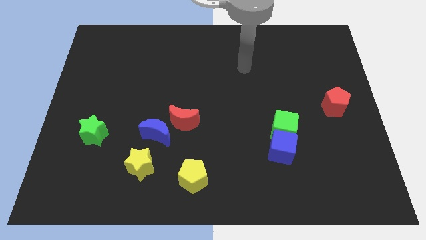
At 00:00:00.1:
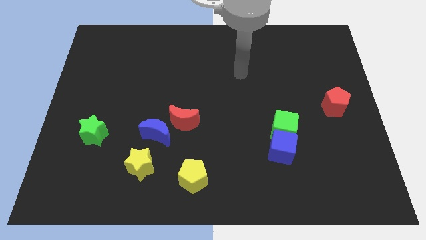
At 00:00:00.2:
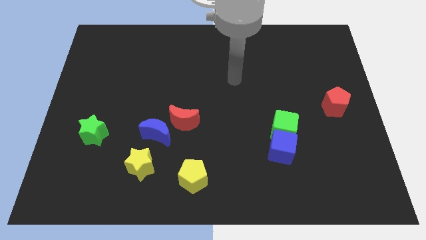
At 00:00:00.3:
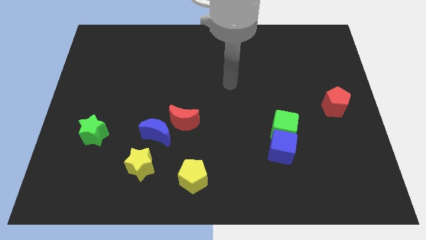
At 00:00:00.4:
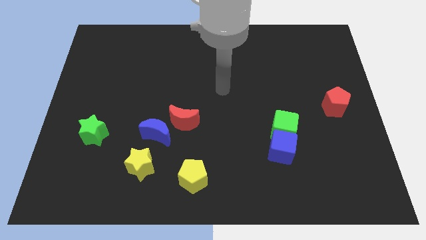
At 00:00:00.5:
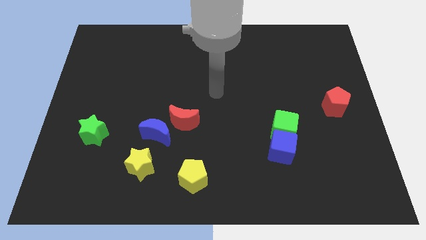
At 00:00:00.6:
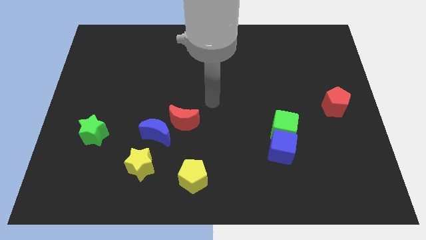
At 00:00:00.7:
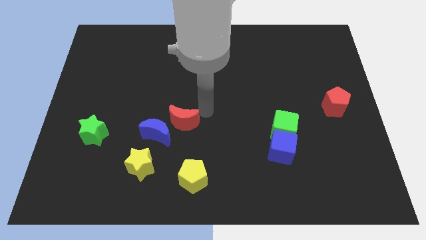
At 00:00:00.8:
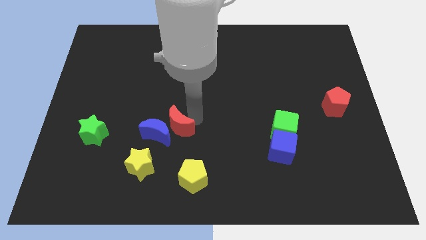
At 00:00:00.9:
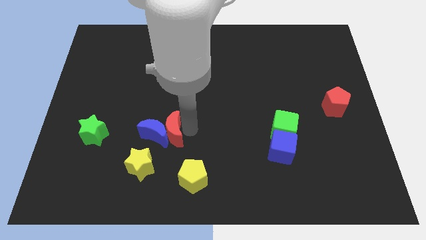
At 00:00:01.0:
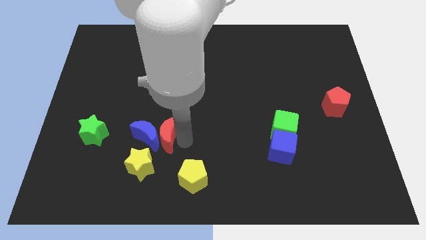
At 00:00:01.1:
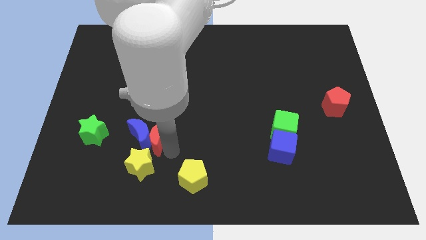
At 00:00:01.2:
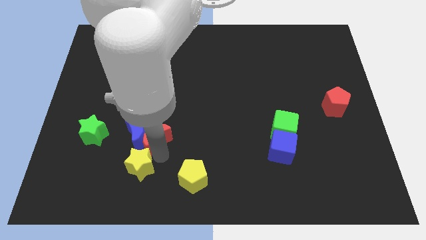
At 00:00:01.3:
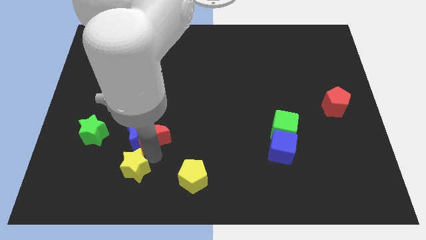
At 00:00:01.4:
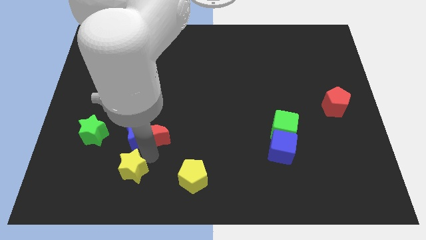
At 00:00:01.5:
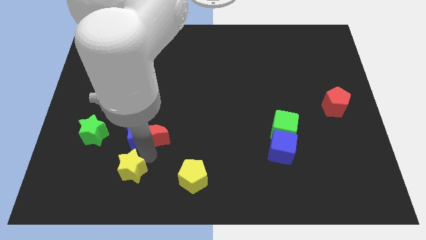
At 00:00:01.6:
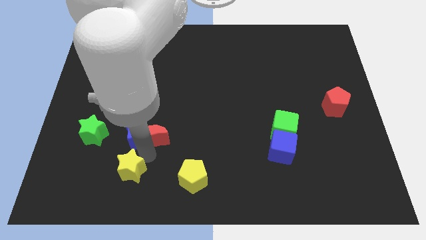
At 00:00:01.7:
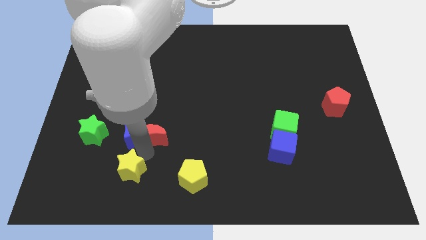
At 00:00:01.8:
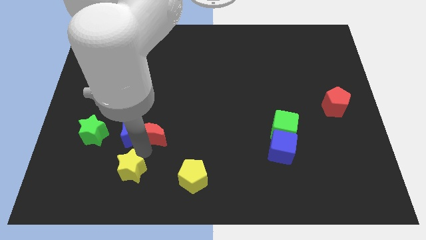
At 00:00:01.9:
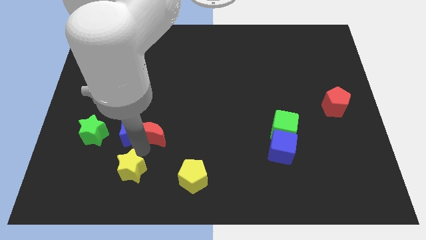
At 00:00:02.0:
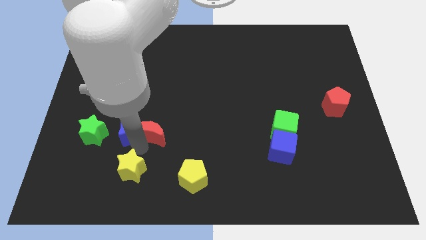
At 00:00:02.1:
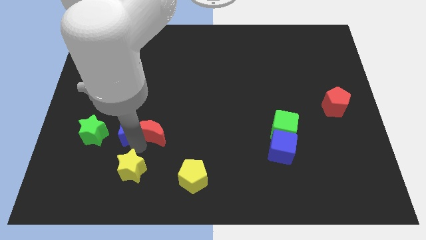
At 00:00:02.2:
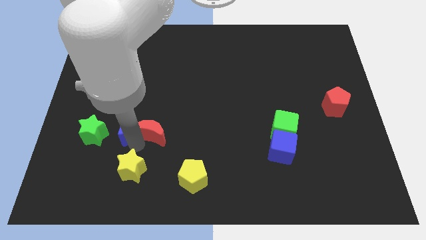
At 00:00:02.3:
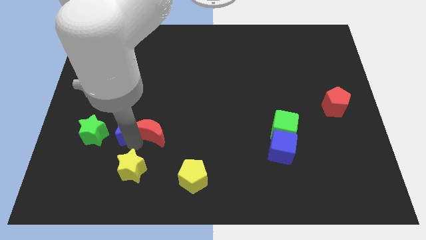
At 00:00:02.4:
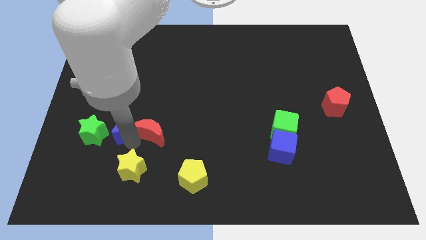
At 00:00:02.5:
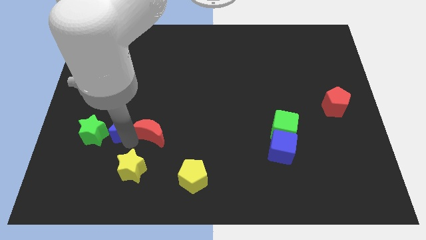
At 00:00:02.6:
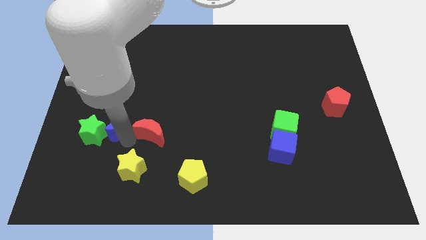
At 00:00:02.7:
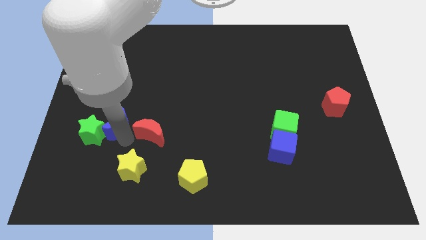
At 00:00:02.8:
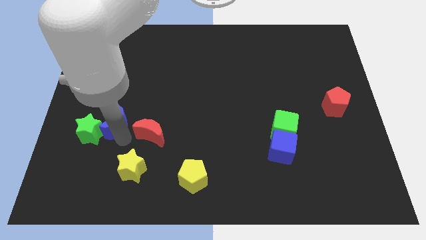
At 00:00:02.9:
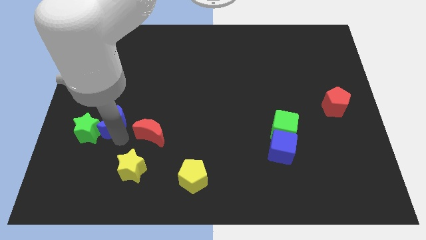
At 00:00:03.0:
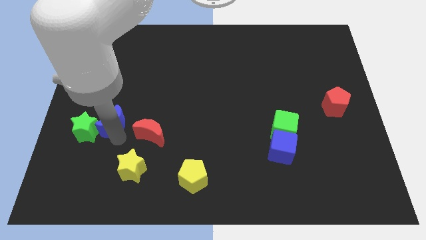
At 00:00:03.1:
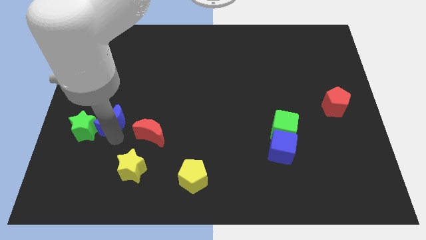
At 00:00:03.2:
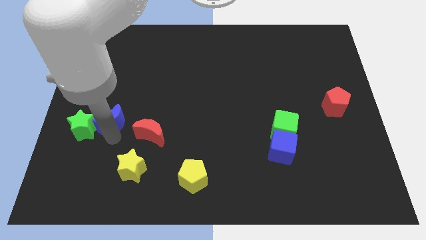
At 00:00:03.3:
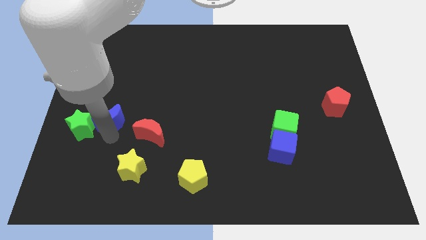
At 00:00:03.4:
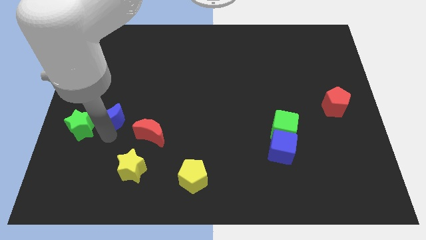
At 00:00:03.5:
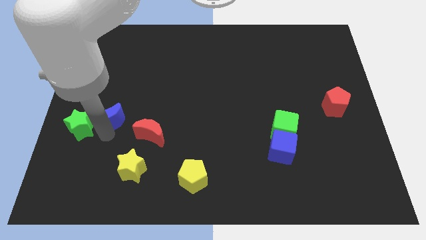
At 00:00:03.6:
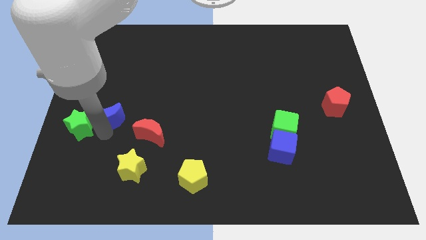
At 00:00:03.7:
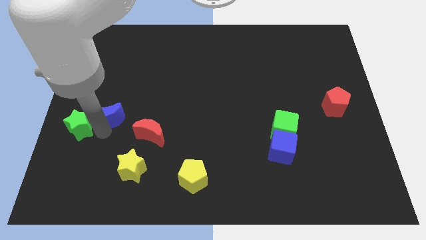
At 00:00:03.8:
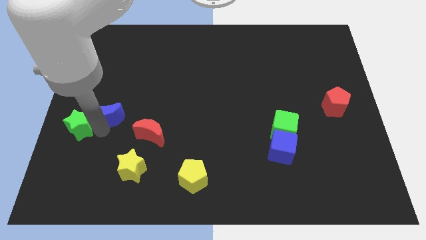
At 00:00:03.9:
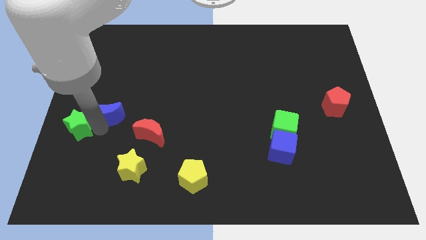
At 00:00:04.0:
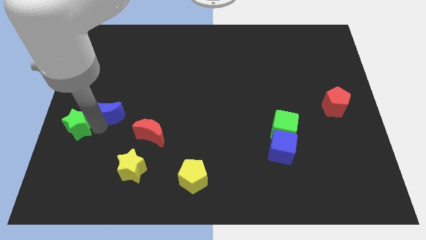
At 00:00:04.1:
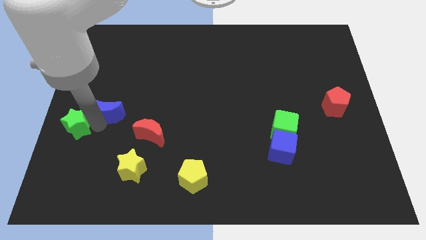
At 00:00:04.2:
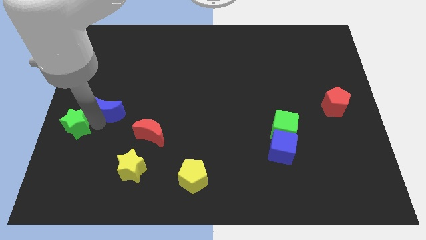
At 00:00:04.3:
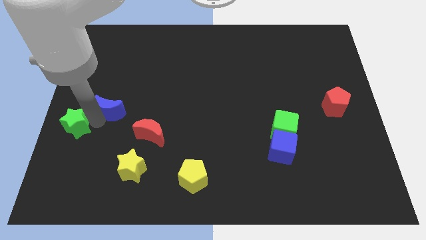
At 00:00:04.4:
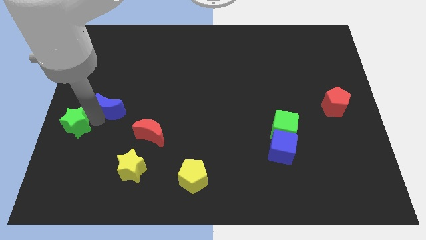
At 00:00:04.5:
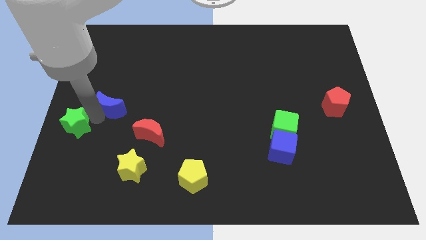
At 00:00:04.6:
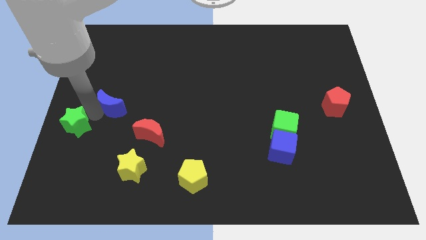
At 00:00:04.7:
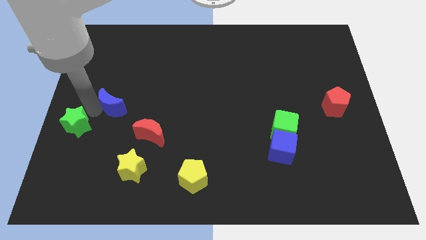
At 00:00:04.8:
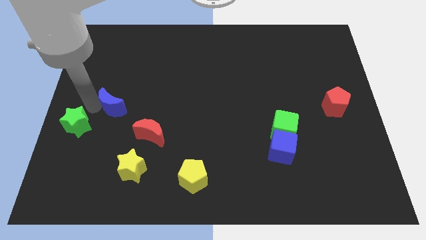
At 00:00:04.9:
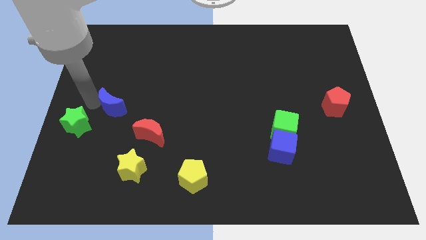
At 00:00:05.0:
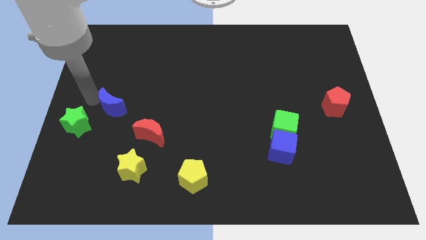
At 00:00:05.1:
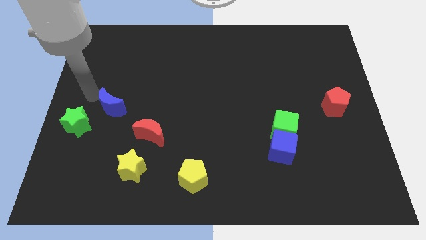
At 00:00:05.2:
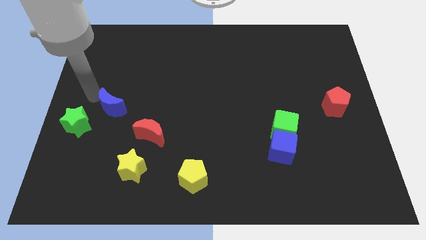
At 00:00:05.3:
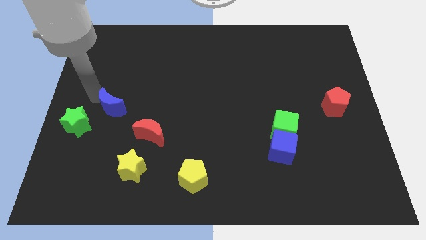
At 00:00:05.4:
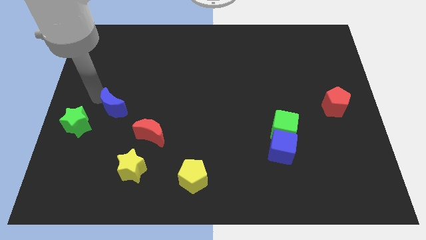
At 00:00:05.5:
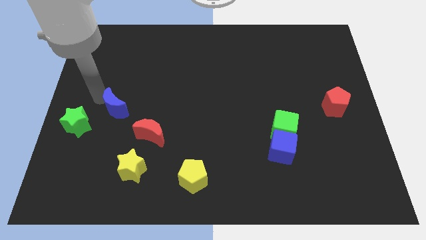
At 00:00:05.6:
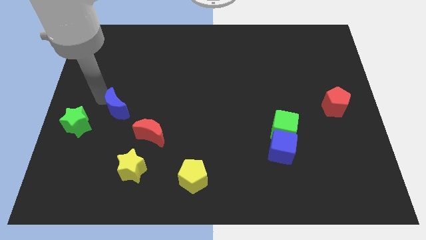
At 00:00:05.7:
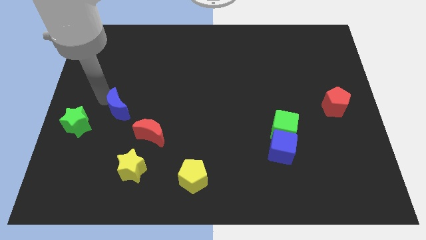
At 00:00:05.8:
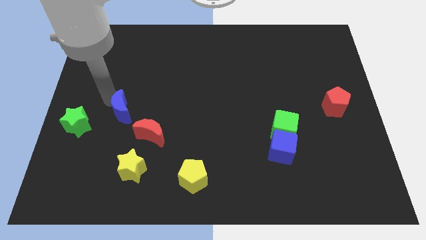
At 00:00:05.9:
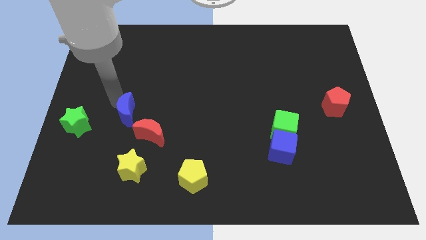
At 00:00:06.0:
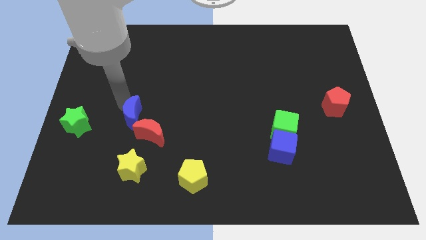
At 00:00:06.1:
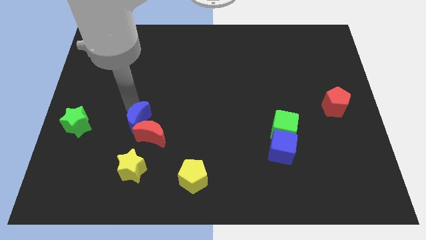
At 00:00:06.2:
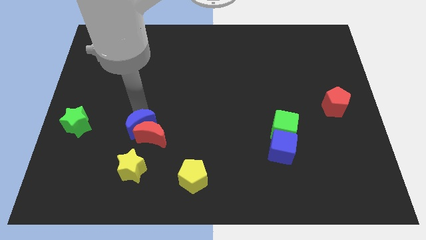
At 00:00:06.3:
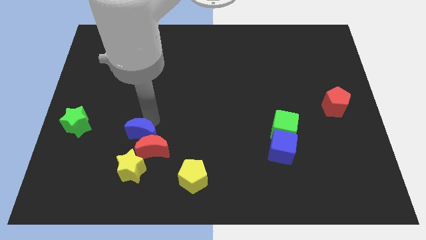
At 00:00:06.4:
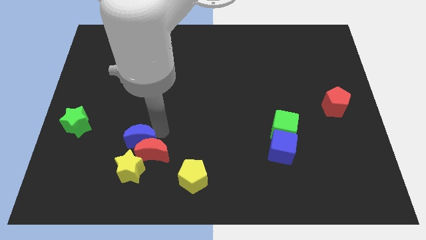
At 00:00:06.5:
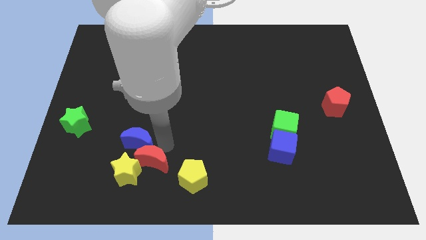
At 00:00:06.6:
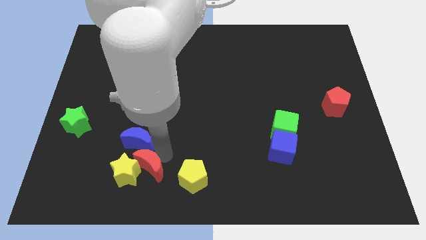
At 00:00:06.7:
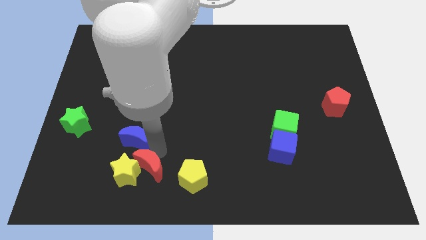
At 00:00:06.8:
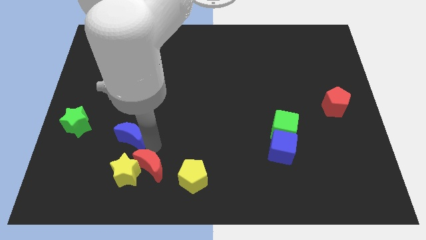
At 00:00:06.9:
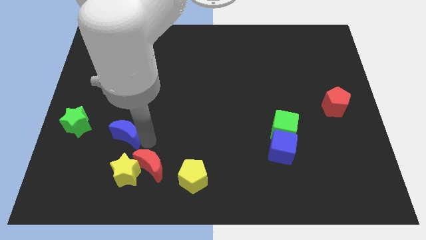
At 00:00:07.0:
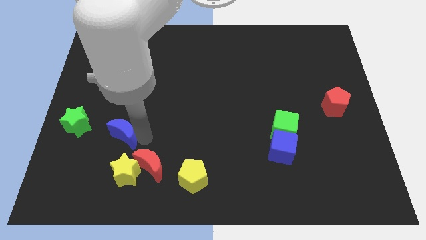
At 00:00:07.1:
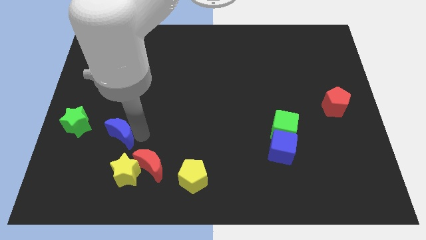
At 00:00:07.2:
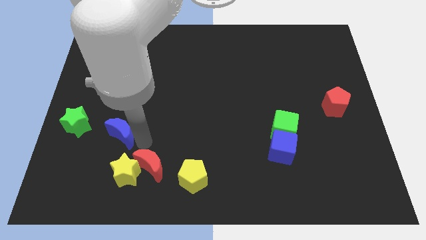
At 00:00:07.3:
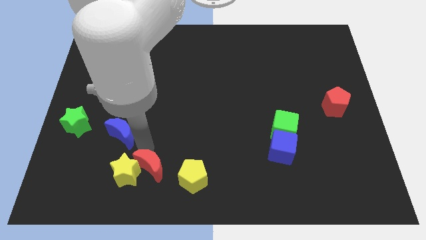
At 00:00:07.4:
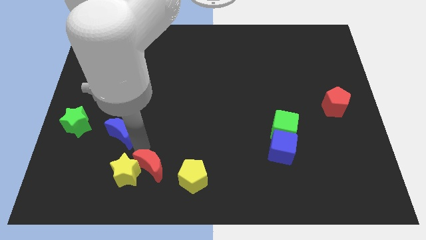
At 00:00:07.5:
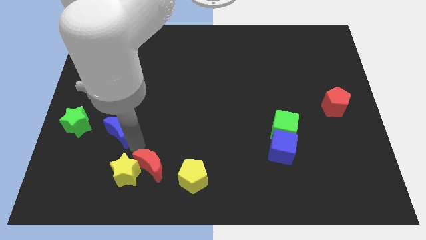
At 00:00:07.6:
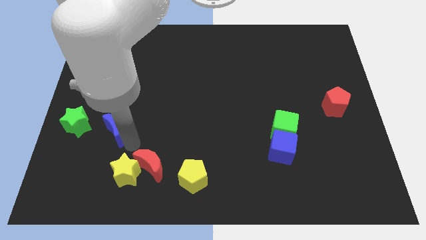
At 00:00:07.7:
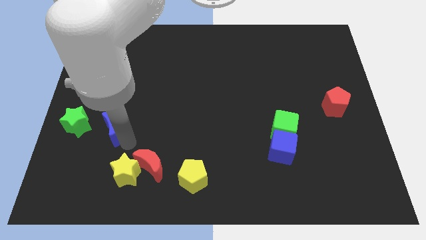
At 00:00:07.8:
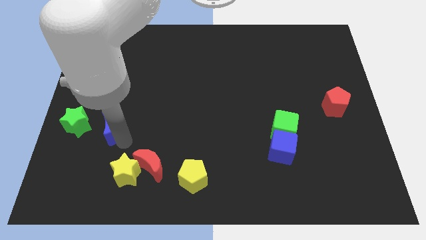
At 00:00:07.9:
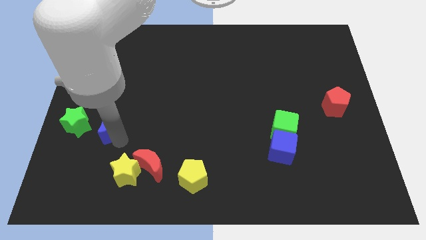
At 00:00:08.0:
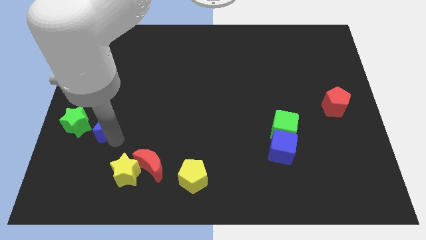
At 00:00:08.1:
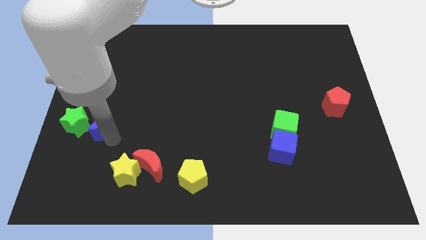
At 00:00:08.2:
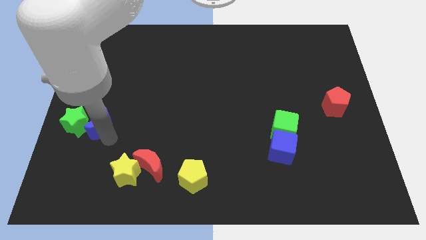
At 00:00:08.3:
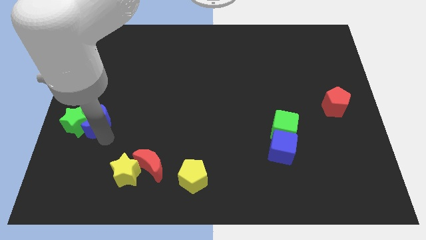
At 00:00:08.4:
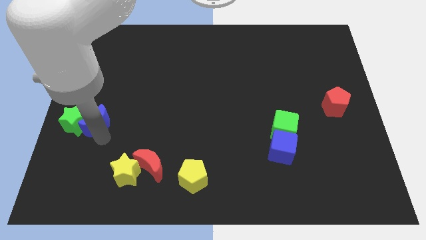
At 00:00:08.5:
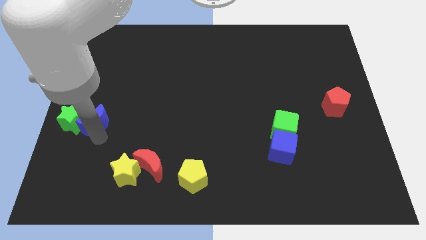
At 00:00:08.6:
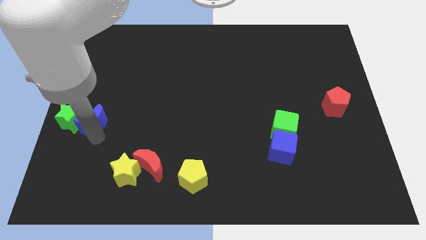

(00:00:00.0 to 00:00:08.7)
slide the blue moon to the left side

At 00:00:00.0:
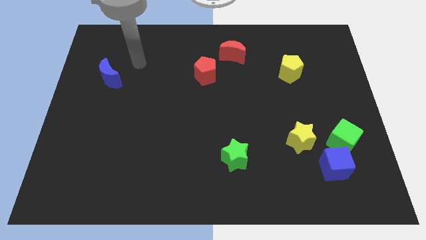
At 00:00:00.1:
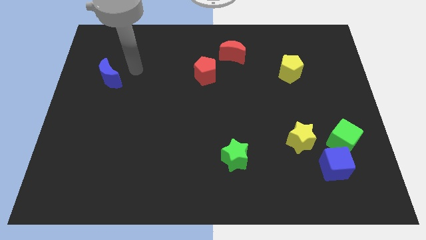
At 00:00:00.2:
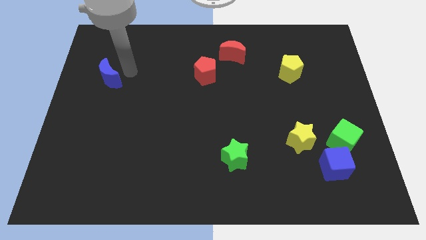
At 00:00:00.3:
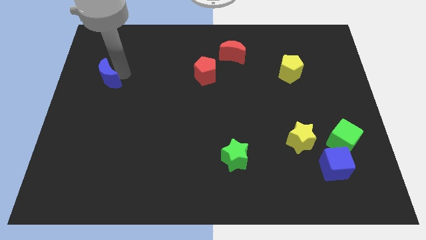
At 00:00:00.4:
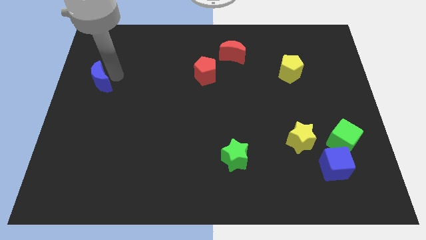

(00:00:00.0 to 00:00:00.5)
slide the blue moon to the left side of the board
